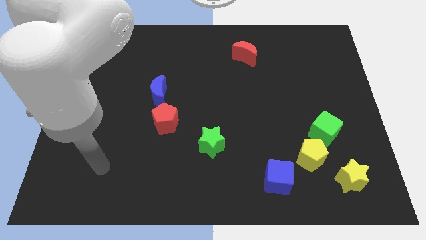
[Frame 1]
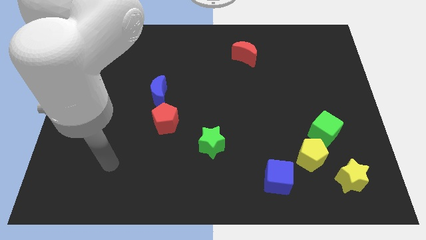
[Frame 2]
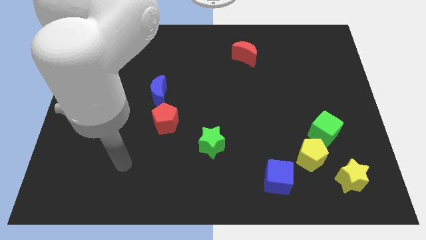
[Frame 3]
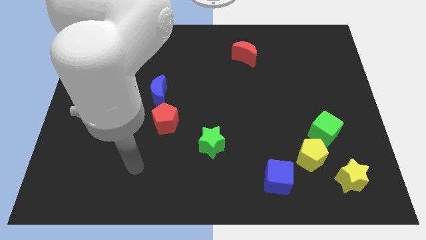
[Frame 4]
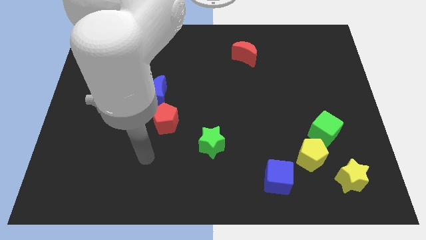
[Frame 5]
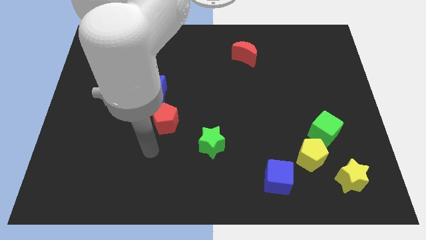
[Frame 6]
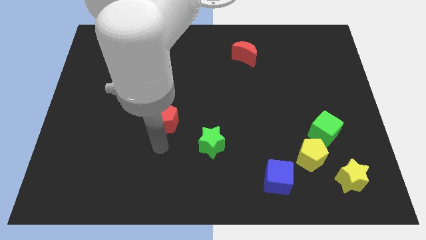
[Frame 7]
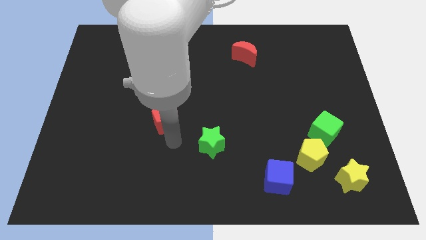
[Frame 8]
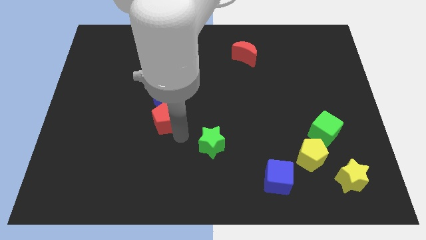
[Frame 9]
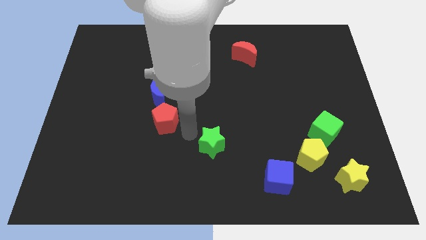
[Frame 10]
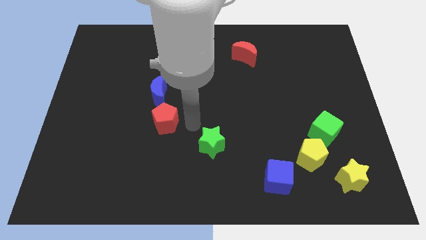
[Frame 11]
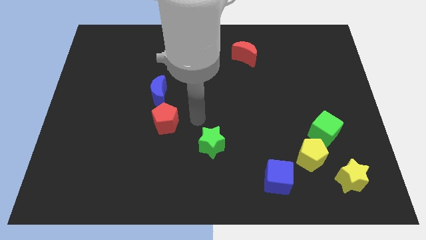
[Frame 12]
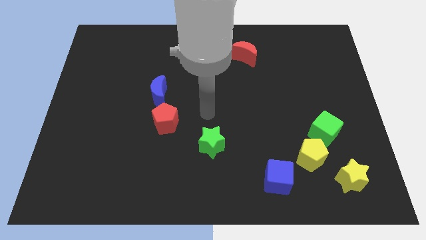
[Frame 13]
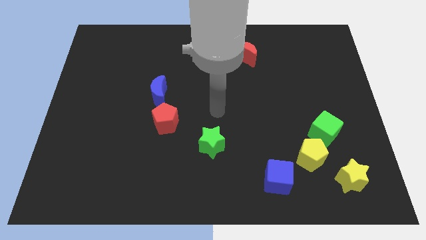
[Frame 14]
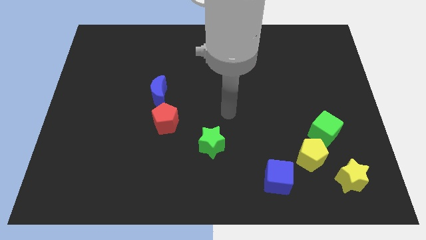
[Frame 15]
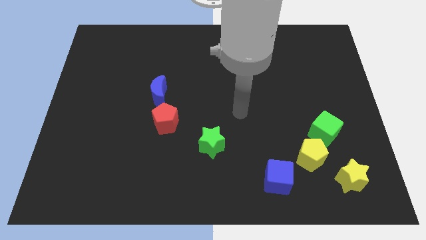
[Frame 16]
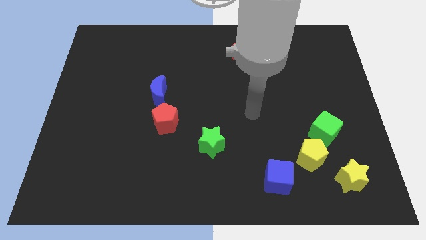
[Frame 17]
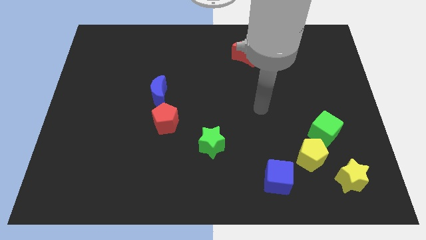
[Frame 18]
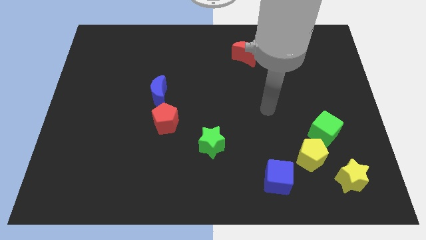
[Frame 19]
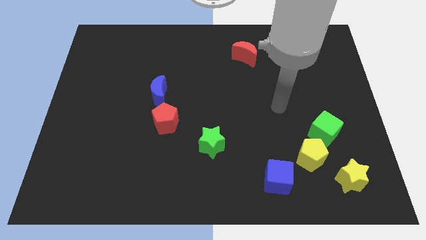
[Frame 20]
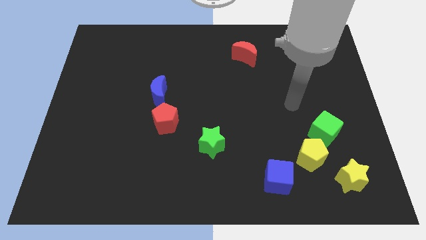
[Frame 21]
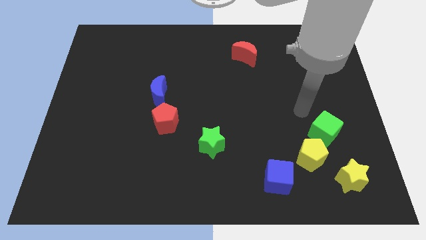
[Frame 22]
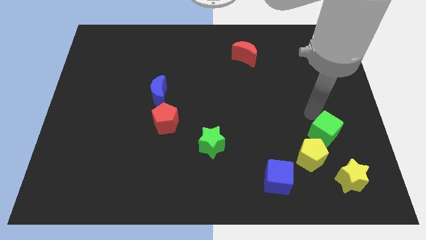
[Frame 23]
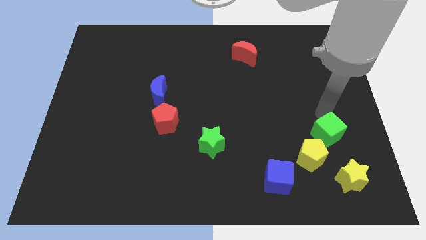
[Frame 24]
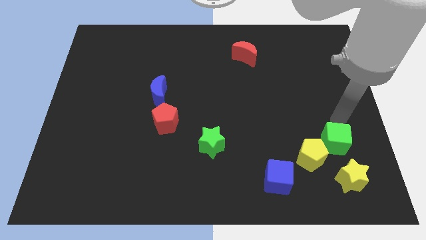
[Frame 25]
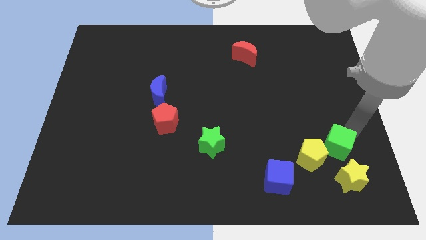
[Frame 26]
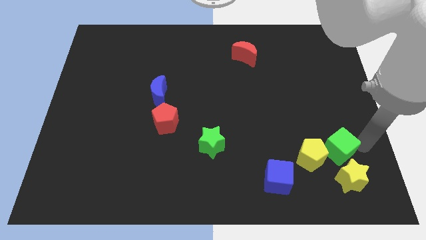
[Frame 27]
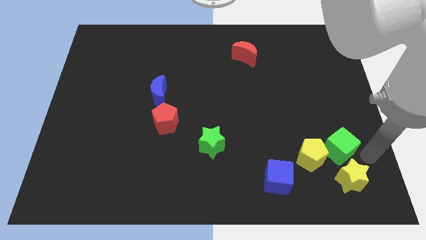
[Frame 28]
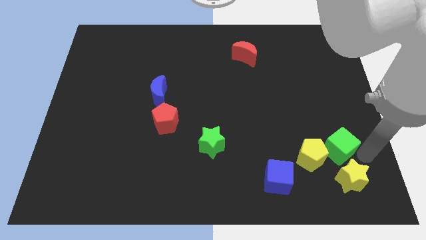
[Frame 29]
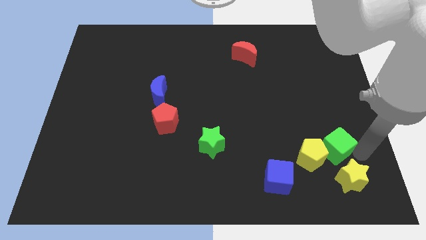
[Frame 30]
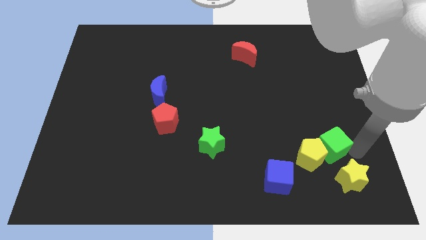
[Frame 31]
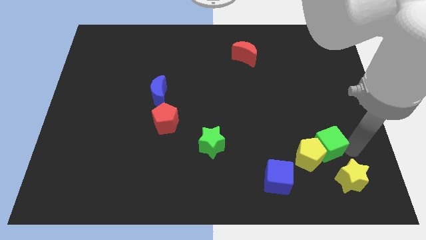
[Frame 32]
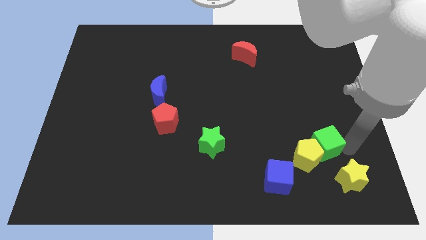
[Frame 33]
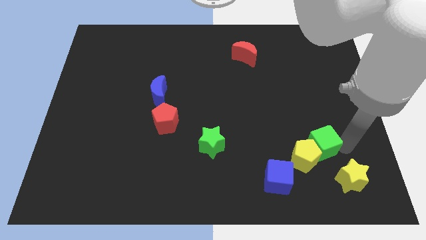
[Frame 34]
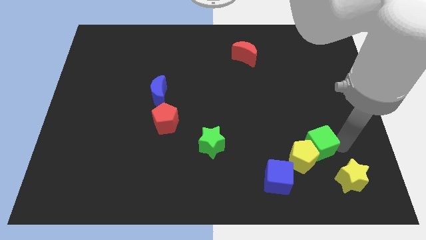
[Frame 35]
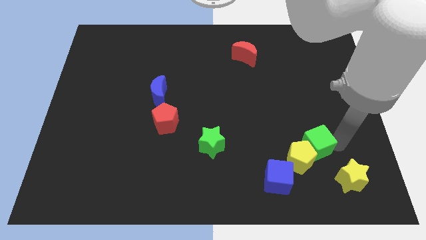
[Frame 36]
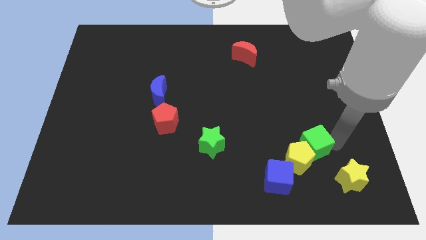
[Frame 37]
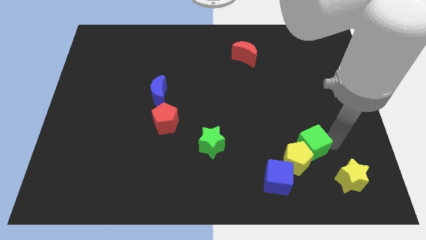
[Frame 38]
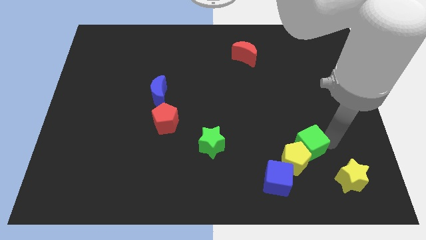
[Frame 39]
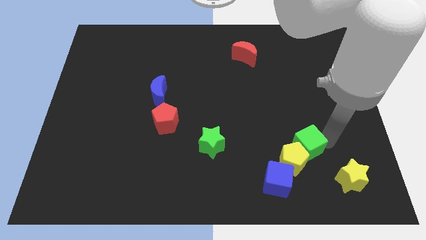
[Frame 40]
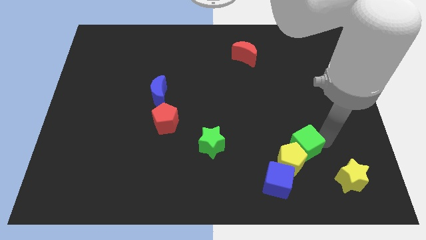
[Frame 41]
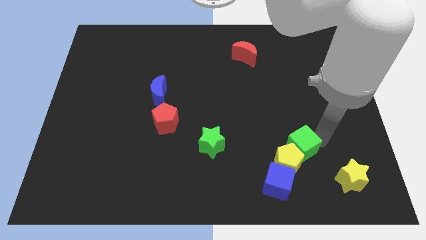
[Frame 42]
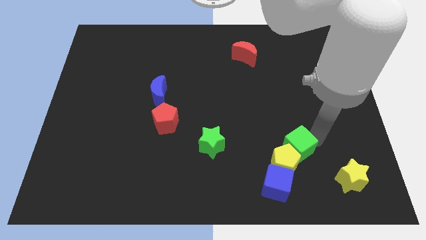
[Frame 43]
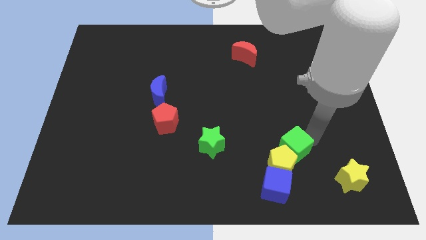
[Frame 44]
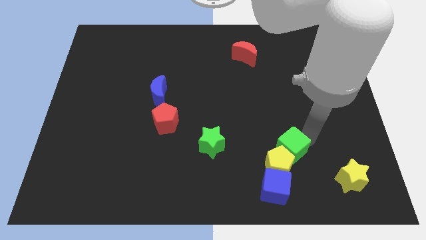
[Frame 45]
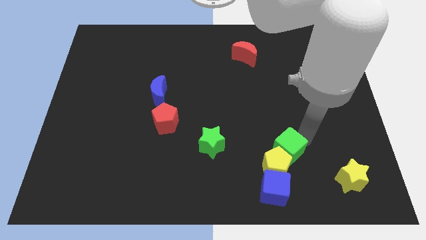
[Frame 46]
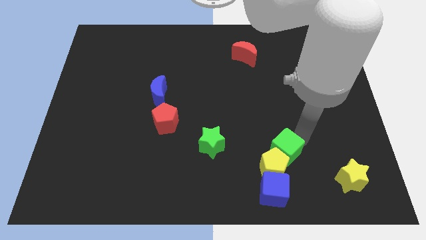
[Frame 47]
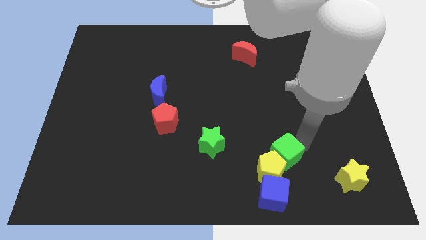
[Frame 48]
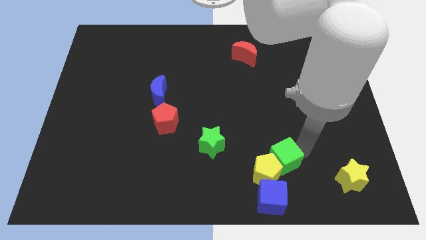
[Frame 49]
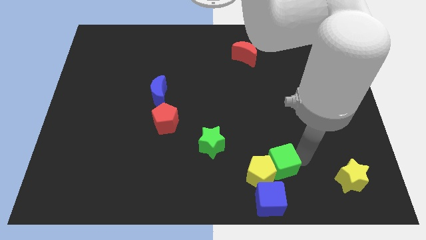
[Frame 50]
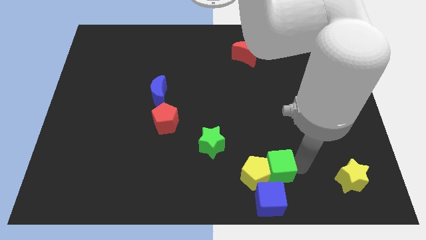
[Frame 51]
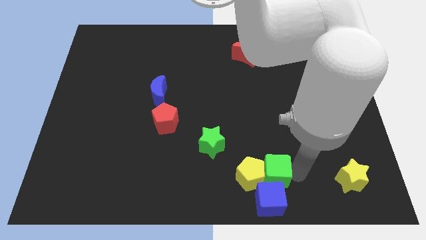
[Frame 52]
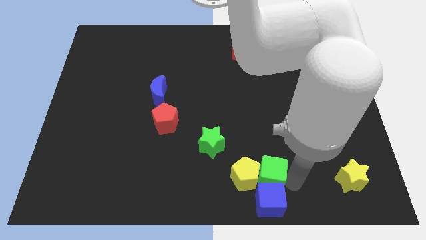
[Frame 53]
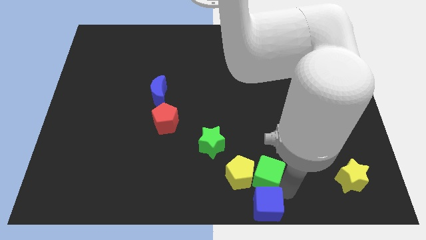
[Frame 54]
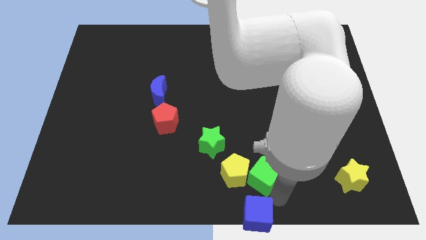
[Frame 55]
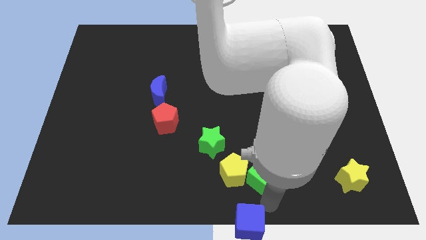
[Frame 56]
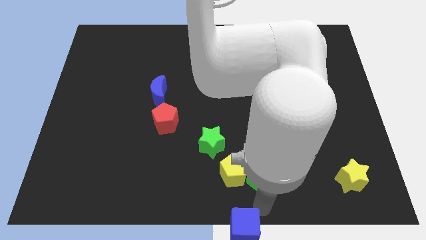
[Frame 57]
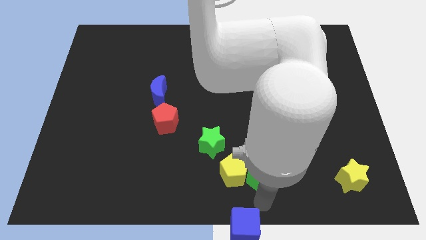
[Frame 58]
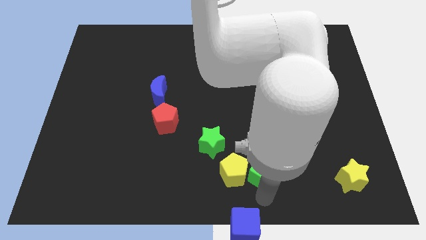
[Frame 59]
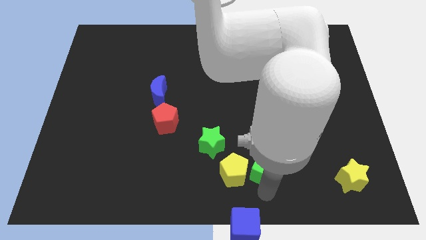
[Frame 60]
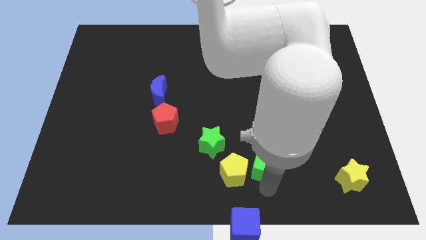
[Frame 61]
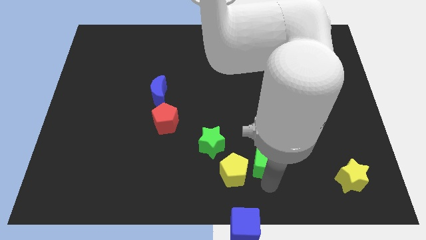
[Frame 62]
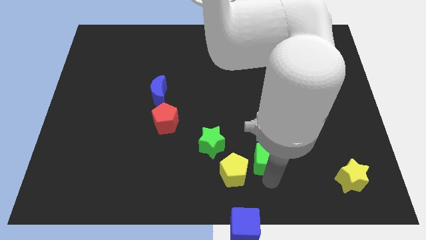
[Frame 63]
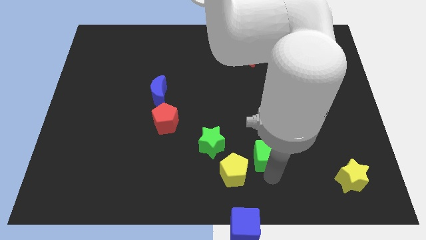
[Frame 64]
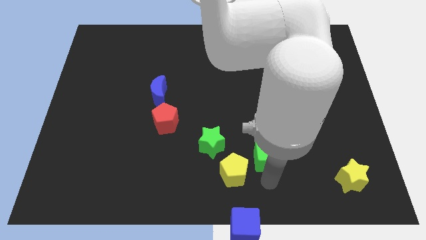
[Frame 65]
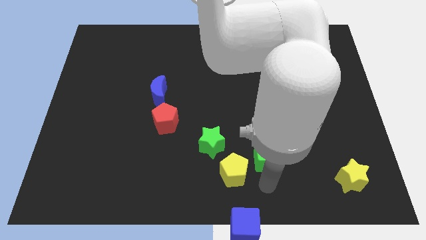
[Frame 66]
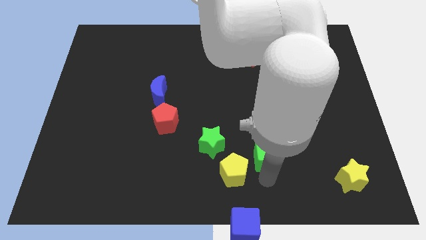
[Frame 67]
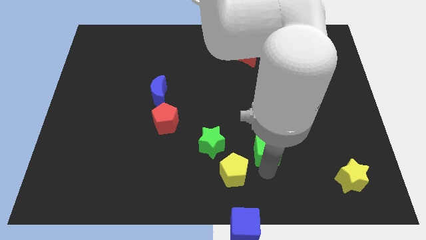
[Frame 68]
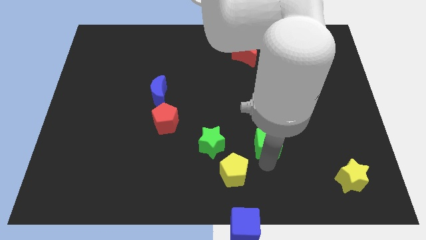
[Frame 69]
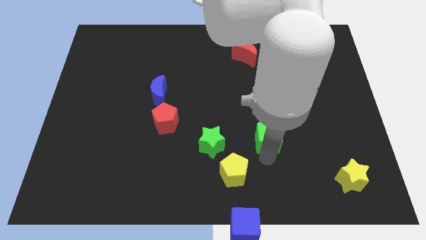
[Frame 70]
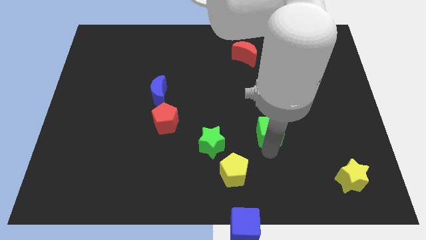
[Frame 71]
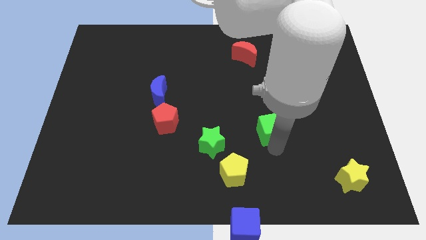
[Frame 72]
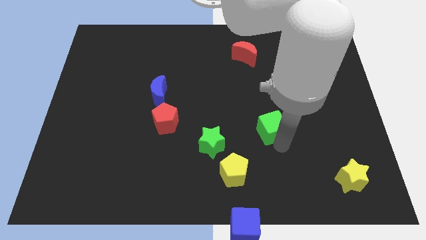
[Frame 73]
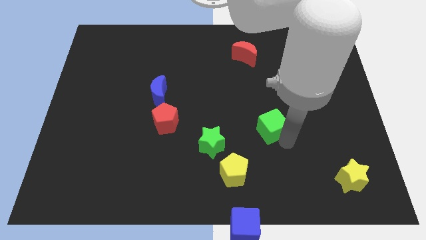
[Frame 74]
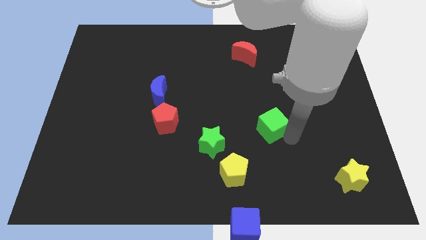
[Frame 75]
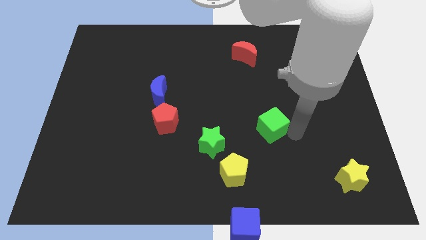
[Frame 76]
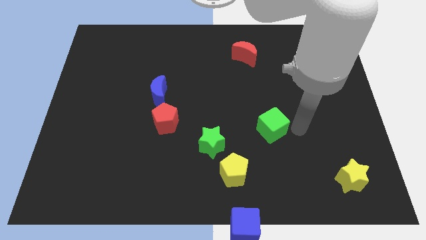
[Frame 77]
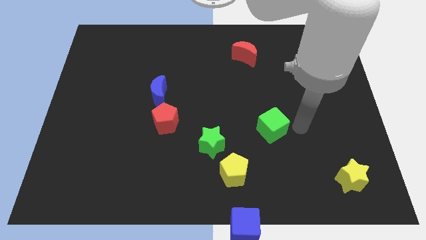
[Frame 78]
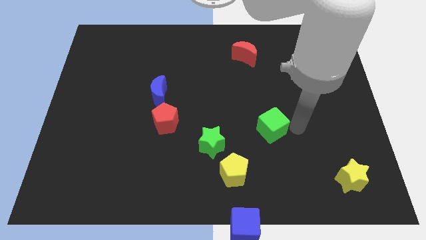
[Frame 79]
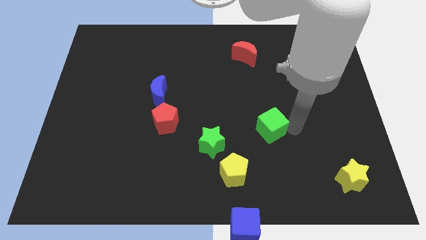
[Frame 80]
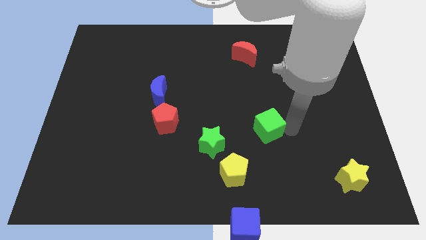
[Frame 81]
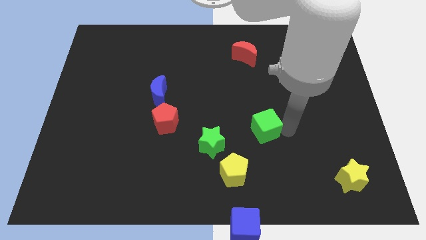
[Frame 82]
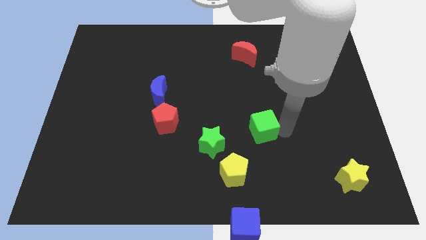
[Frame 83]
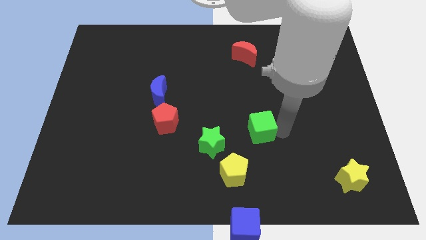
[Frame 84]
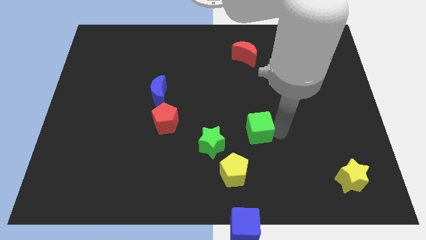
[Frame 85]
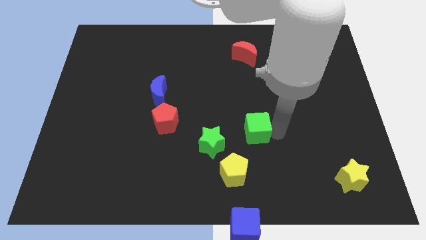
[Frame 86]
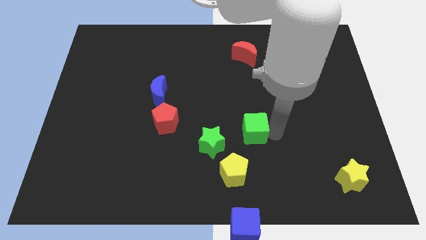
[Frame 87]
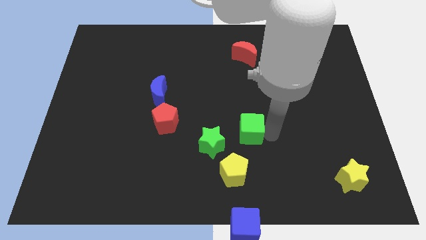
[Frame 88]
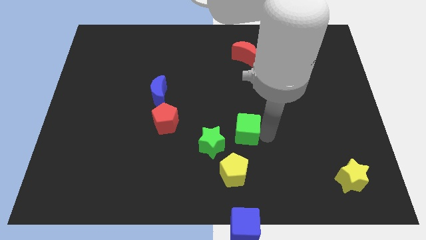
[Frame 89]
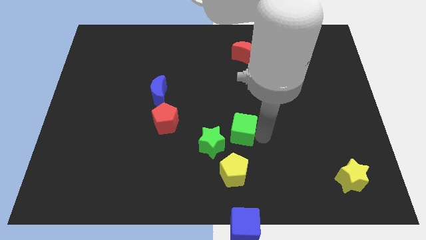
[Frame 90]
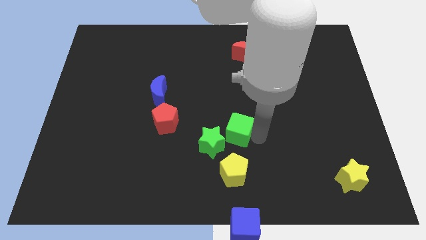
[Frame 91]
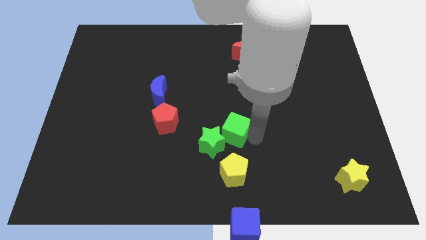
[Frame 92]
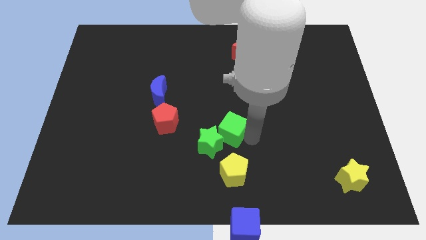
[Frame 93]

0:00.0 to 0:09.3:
move the green cube just right of the red pentagon
